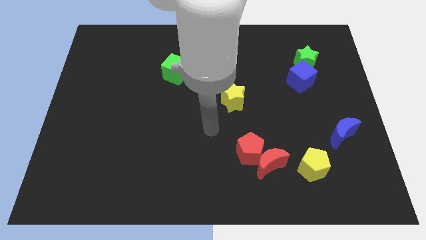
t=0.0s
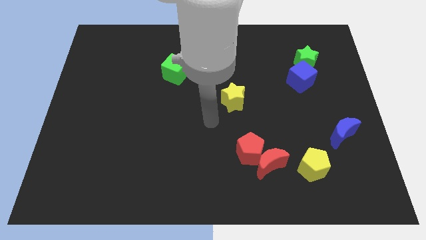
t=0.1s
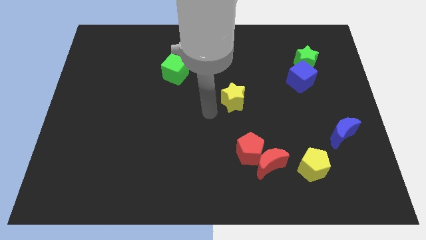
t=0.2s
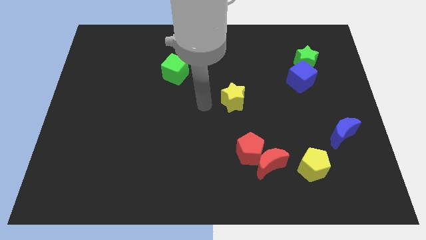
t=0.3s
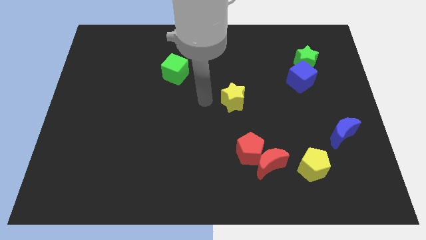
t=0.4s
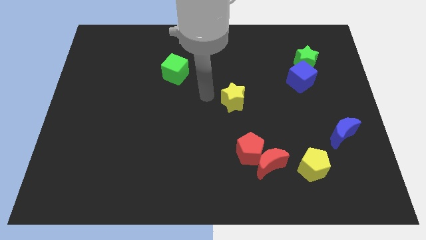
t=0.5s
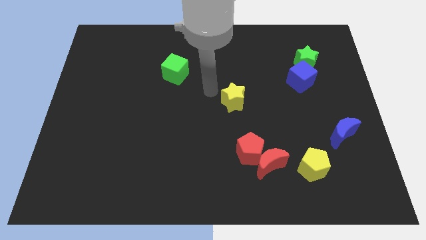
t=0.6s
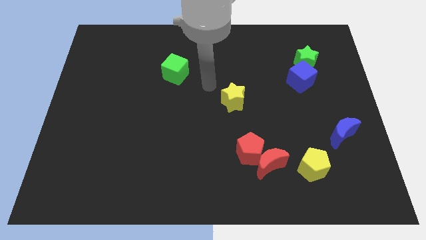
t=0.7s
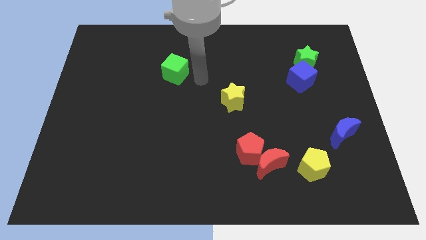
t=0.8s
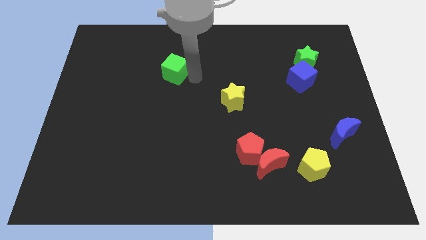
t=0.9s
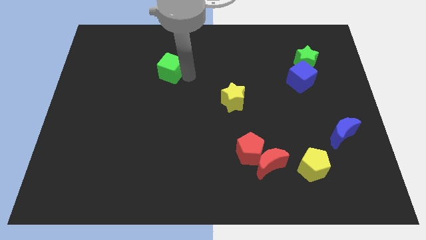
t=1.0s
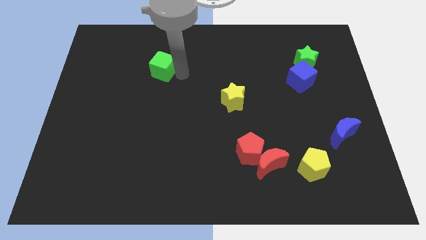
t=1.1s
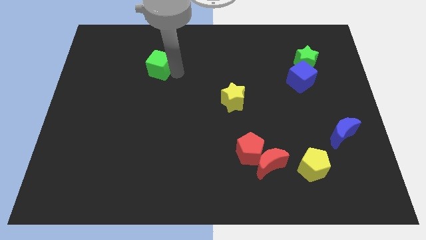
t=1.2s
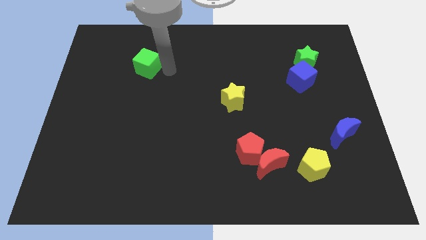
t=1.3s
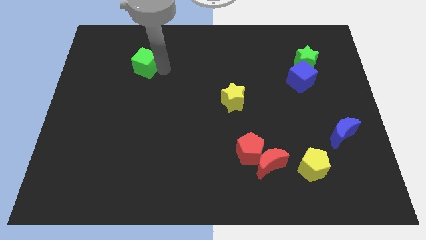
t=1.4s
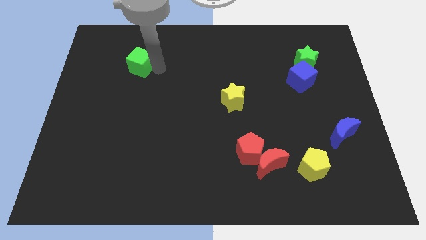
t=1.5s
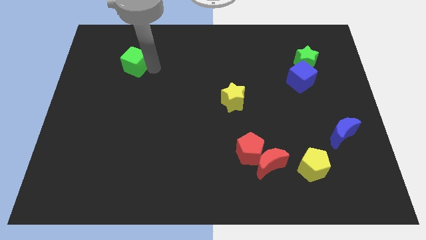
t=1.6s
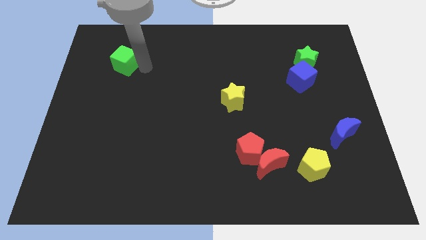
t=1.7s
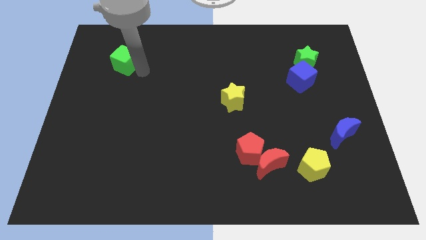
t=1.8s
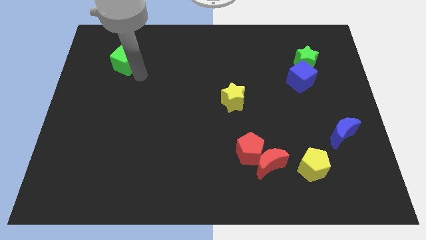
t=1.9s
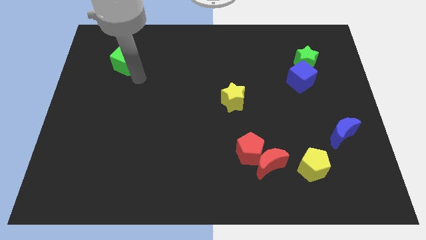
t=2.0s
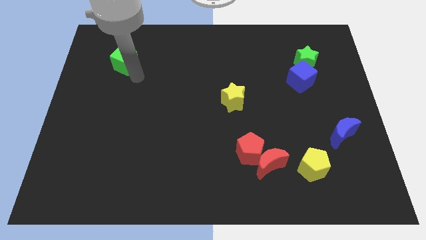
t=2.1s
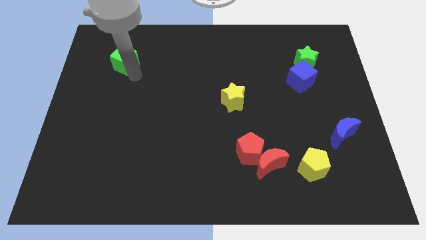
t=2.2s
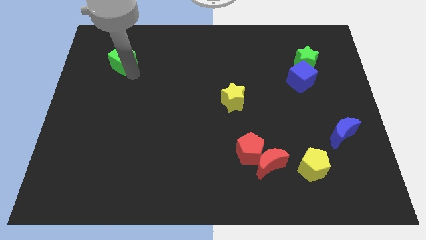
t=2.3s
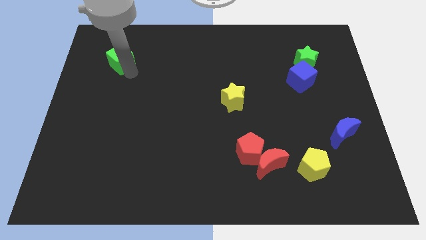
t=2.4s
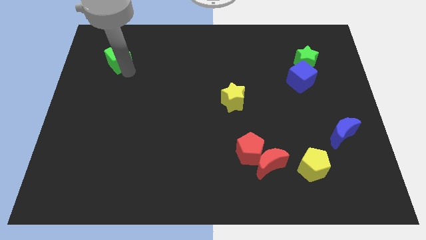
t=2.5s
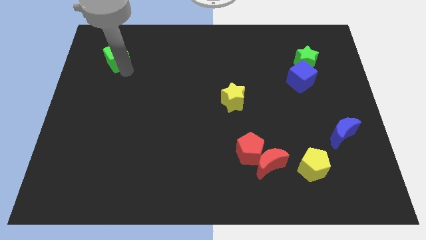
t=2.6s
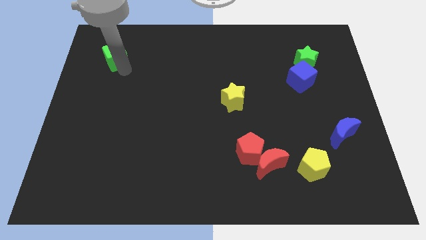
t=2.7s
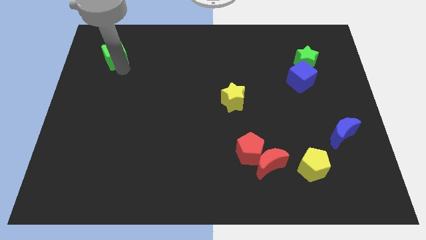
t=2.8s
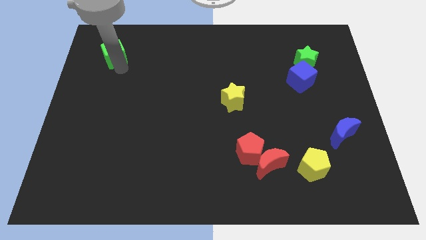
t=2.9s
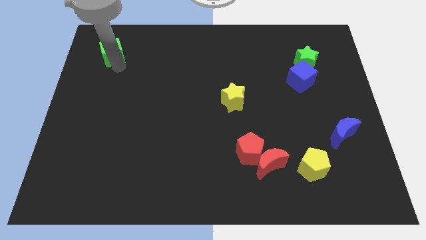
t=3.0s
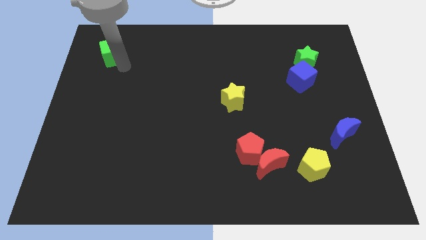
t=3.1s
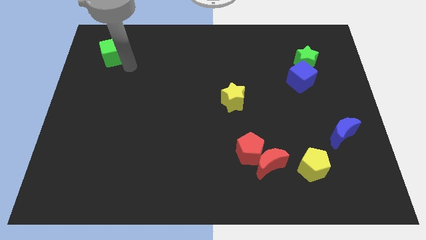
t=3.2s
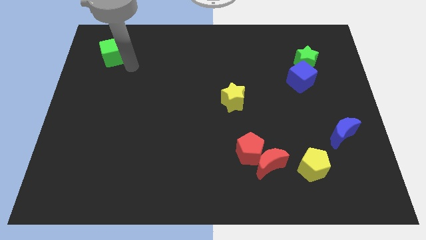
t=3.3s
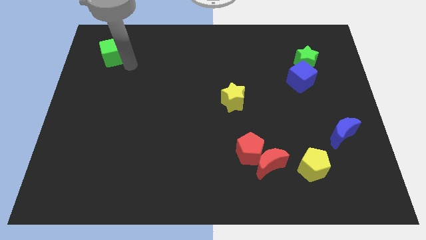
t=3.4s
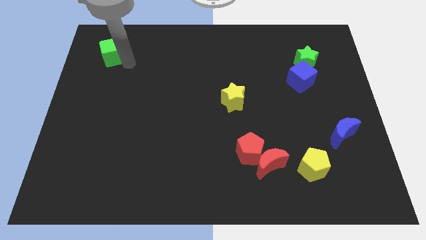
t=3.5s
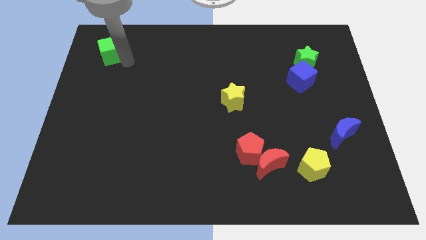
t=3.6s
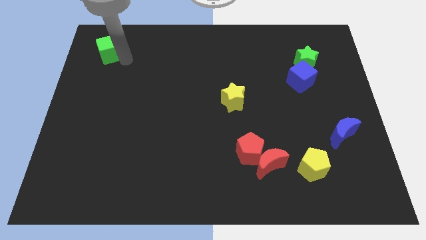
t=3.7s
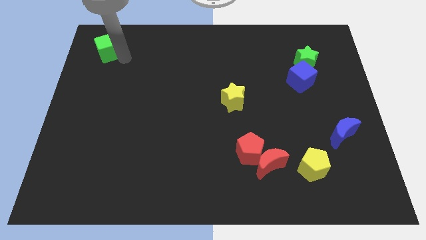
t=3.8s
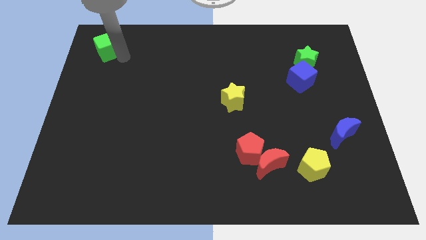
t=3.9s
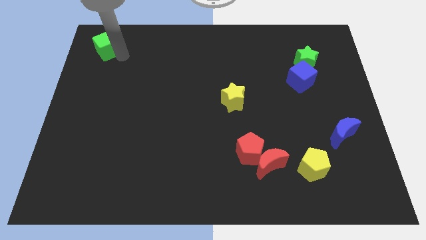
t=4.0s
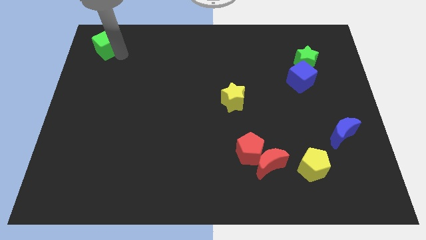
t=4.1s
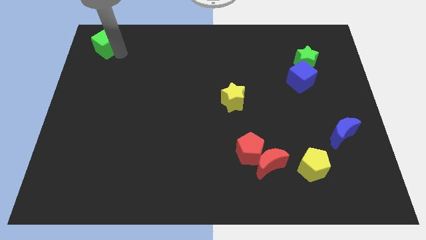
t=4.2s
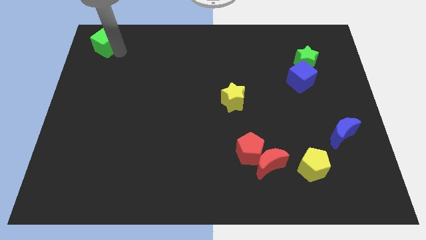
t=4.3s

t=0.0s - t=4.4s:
slide the green cube to the top left corner

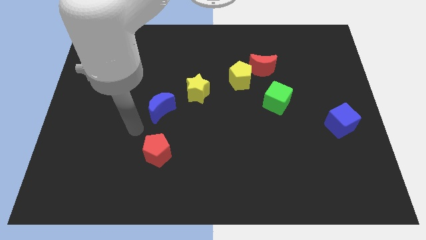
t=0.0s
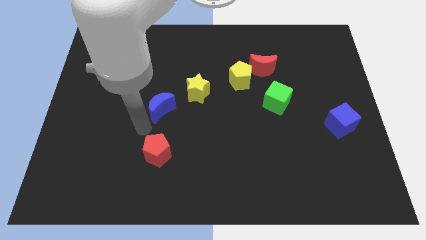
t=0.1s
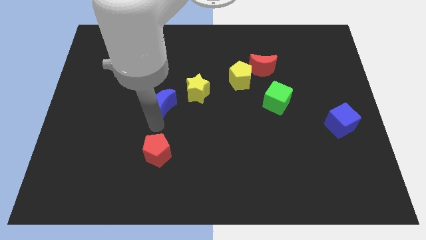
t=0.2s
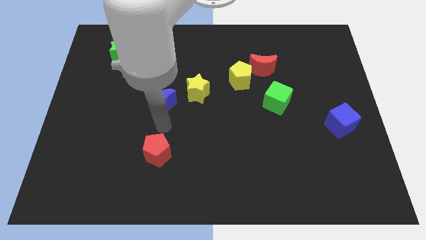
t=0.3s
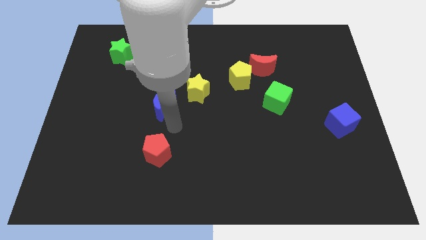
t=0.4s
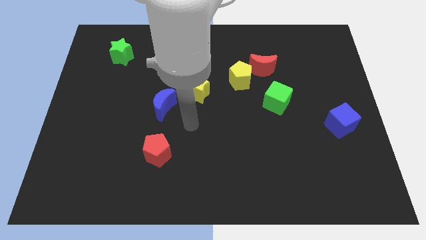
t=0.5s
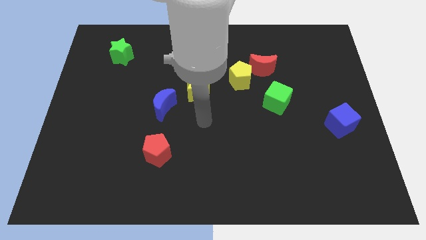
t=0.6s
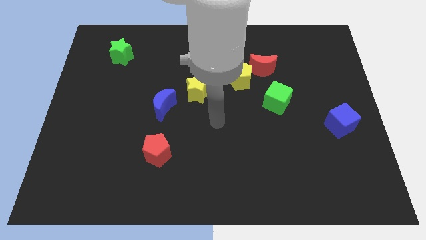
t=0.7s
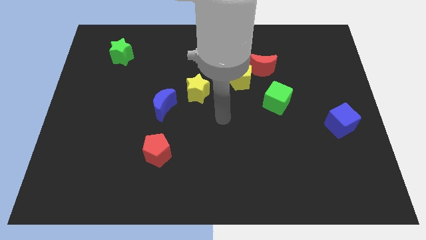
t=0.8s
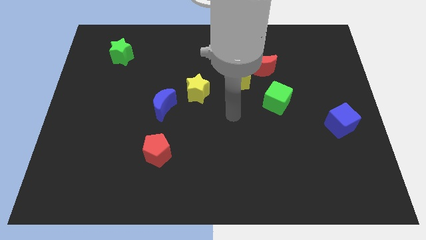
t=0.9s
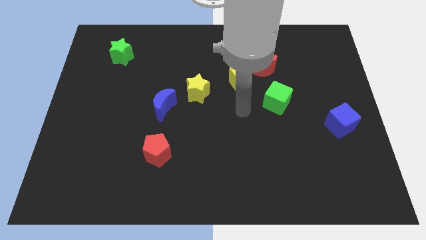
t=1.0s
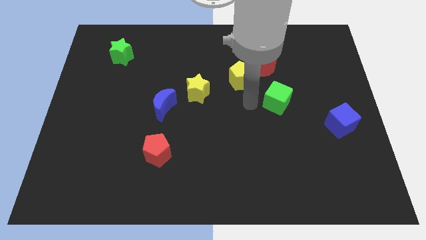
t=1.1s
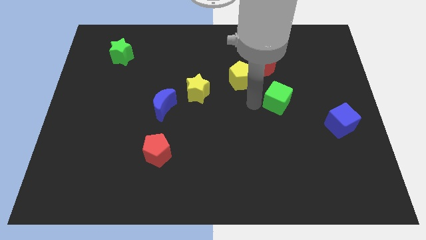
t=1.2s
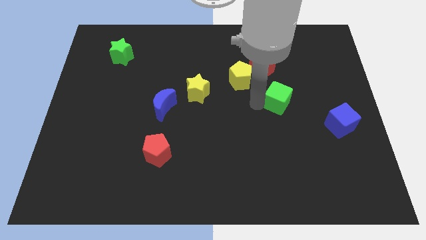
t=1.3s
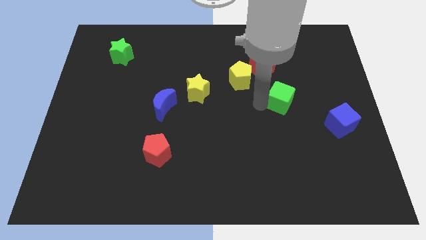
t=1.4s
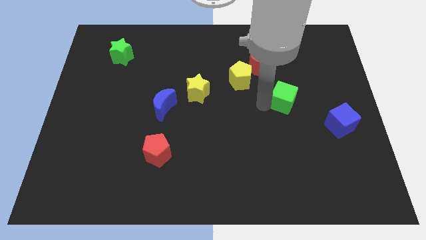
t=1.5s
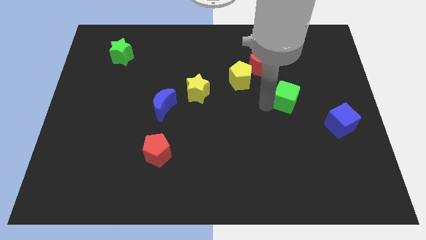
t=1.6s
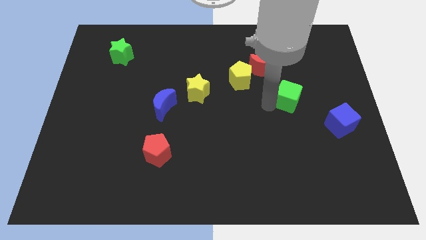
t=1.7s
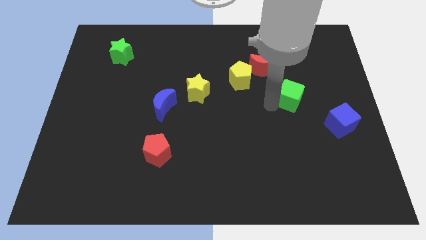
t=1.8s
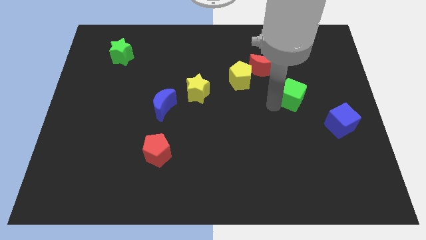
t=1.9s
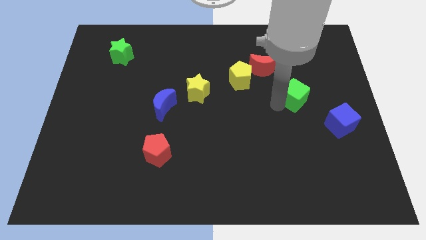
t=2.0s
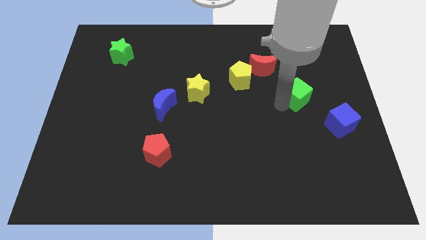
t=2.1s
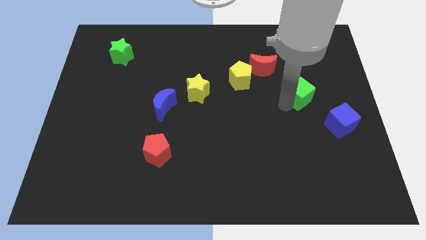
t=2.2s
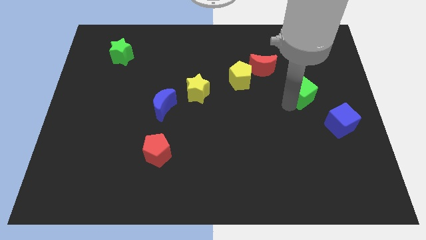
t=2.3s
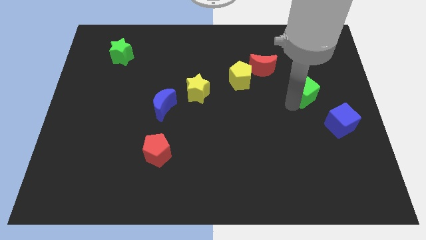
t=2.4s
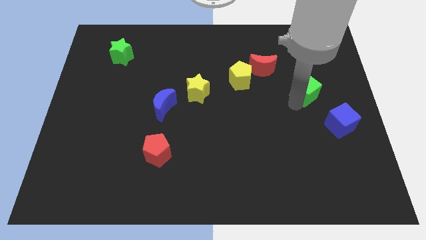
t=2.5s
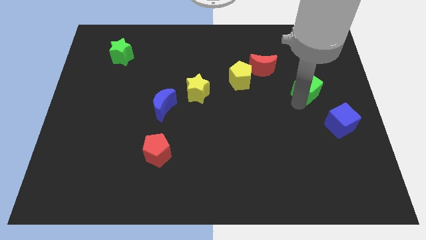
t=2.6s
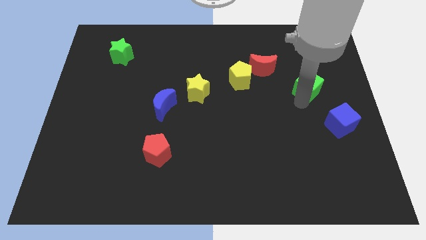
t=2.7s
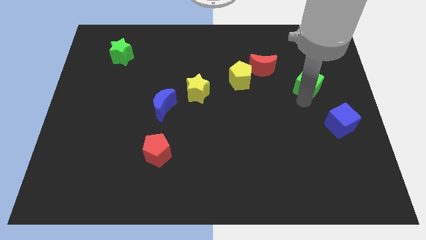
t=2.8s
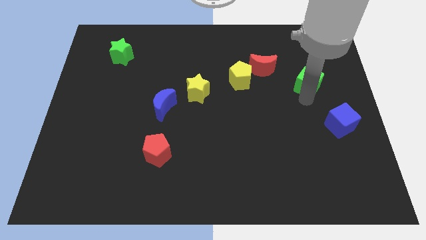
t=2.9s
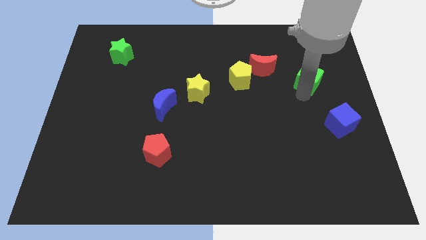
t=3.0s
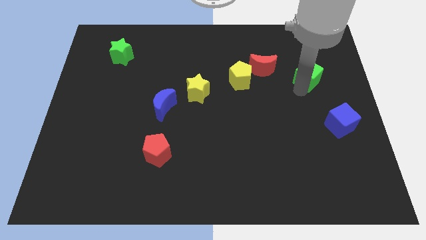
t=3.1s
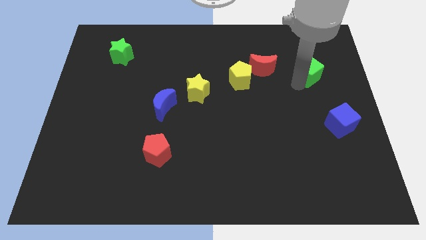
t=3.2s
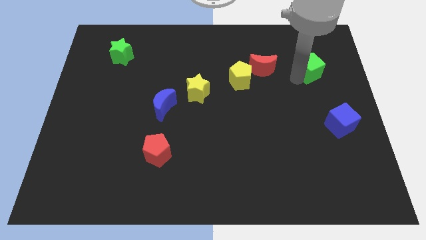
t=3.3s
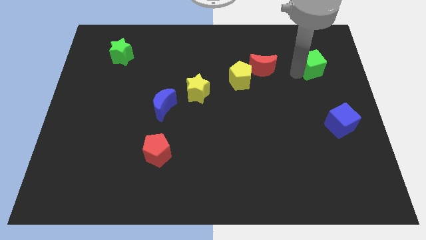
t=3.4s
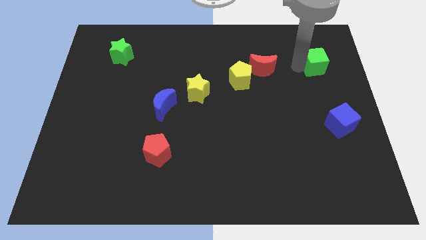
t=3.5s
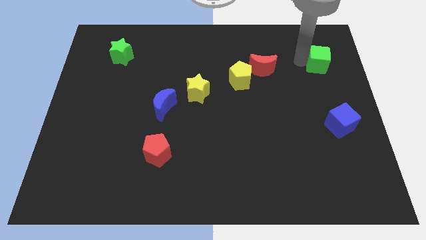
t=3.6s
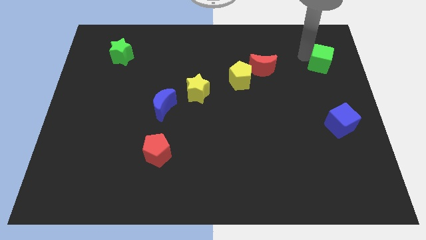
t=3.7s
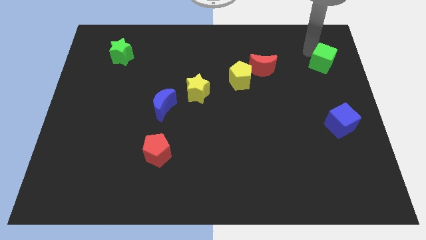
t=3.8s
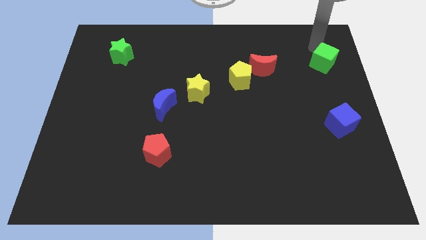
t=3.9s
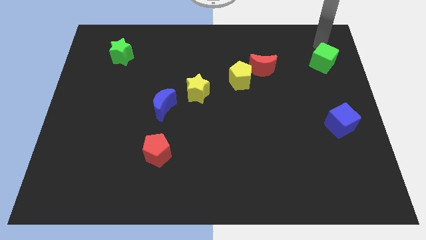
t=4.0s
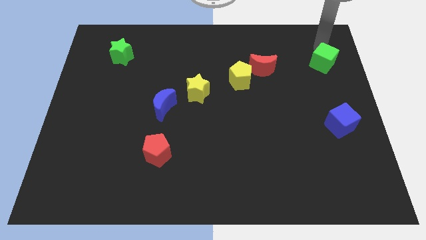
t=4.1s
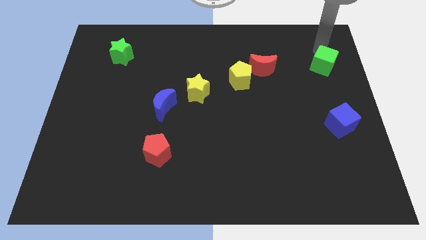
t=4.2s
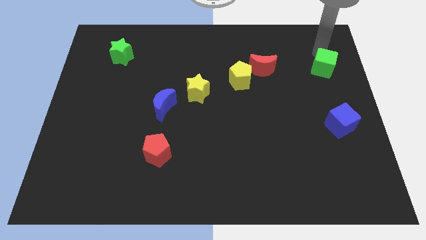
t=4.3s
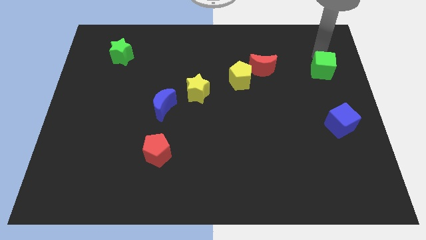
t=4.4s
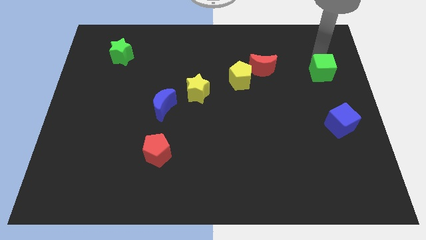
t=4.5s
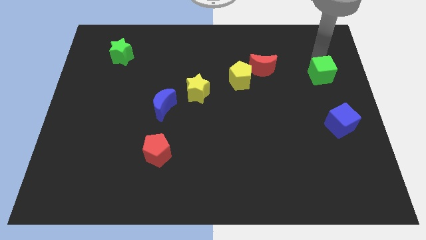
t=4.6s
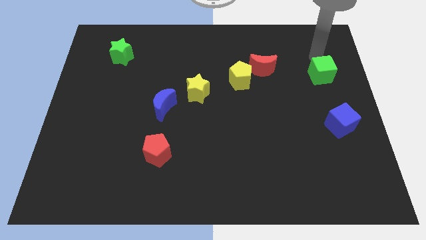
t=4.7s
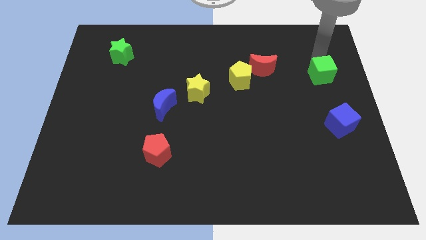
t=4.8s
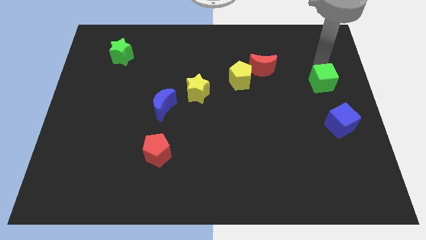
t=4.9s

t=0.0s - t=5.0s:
put the green cube to the right side of the board
